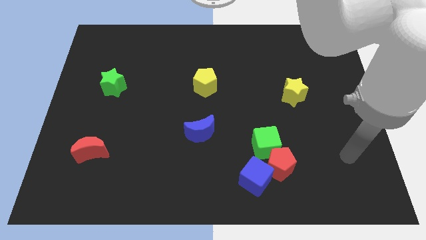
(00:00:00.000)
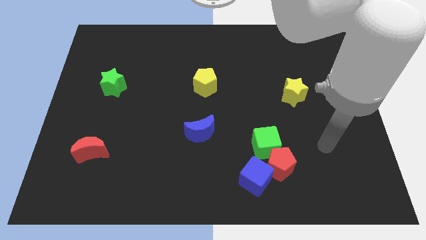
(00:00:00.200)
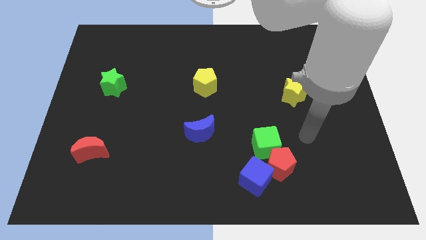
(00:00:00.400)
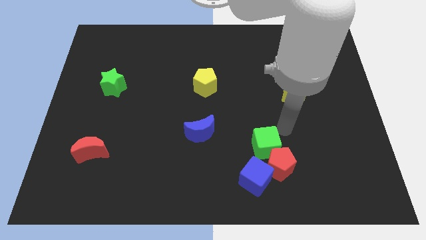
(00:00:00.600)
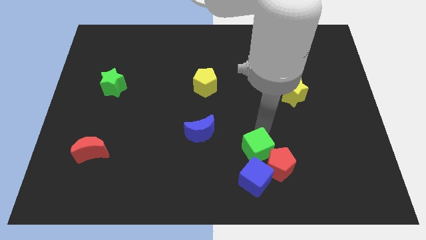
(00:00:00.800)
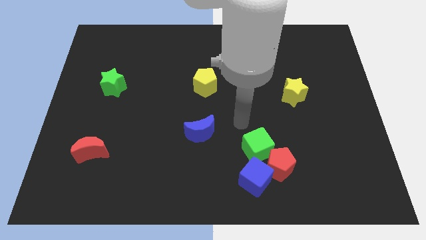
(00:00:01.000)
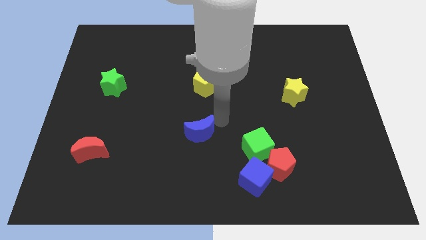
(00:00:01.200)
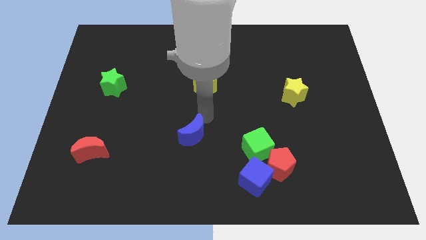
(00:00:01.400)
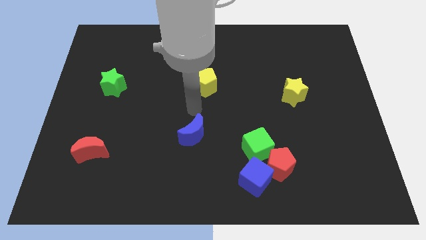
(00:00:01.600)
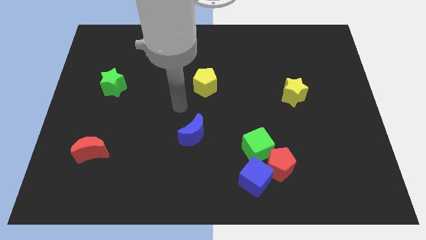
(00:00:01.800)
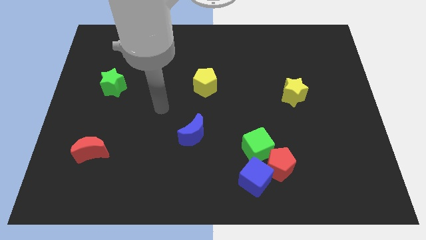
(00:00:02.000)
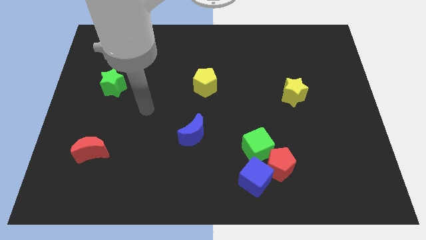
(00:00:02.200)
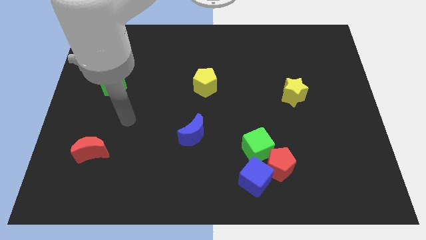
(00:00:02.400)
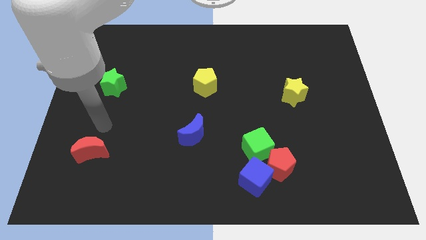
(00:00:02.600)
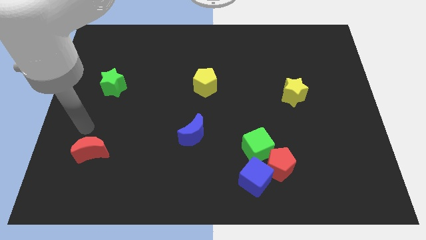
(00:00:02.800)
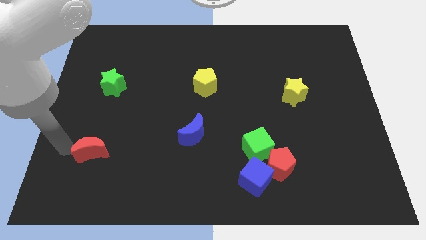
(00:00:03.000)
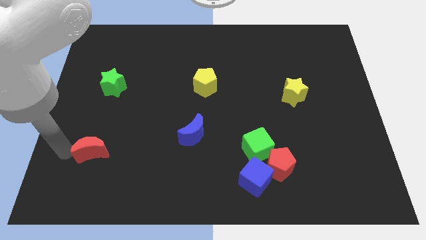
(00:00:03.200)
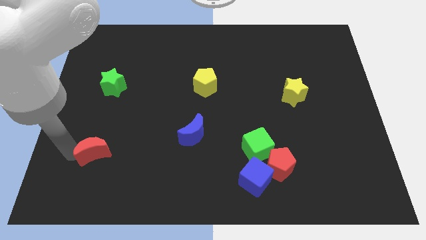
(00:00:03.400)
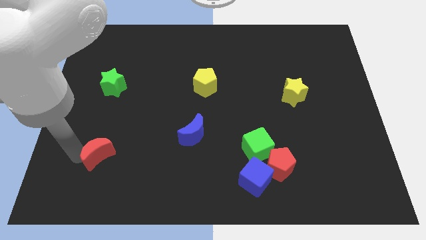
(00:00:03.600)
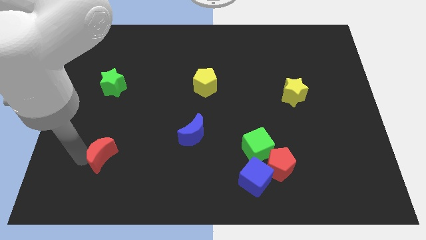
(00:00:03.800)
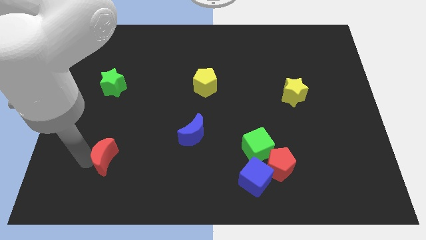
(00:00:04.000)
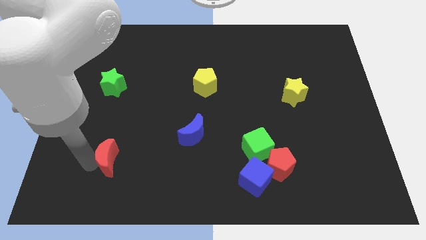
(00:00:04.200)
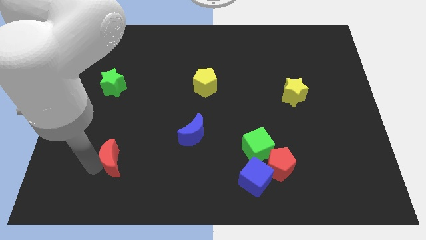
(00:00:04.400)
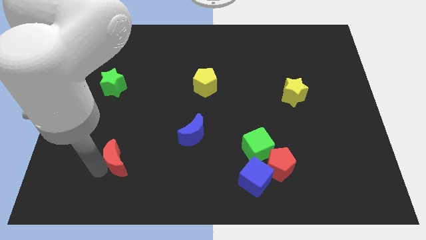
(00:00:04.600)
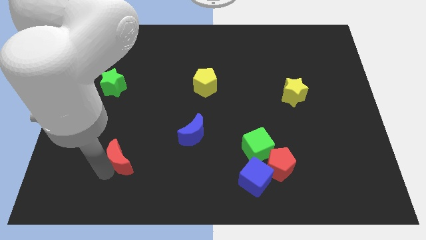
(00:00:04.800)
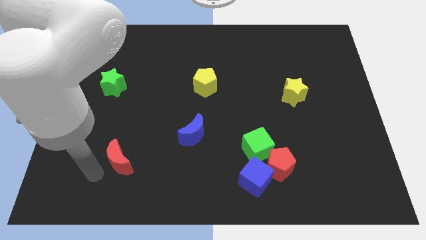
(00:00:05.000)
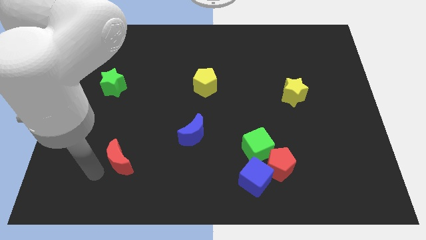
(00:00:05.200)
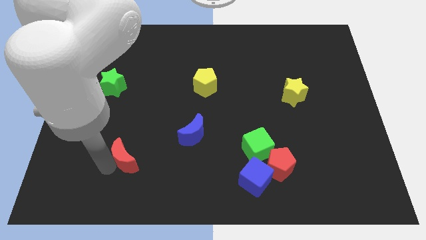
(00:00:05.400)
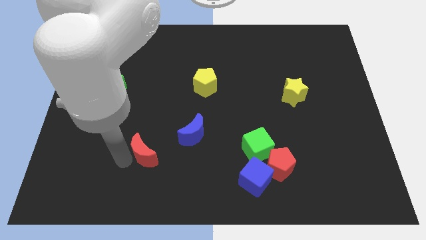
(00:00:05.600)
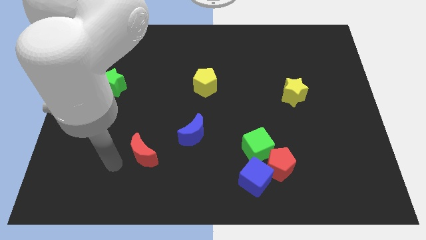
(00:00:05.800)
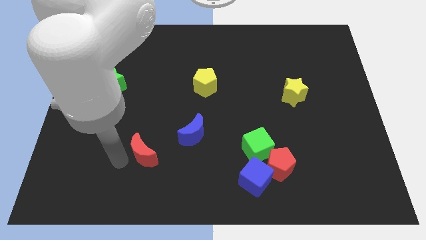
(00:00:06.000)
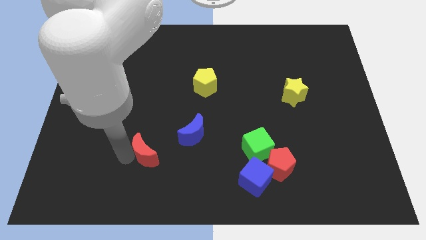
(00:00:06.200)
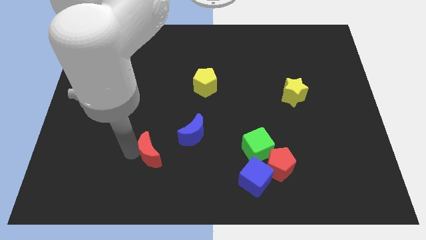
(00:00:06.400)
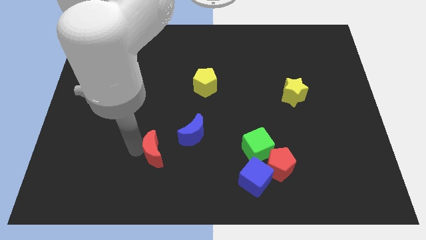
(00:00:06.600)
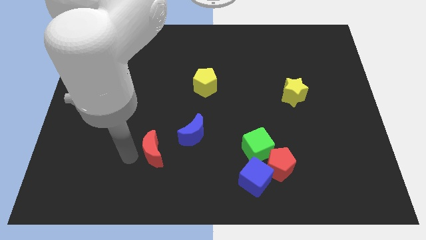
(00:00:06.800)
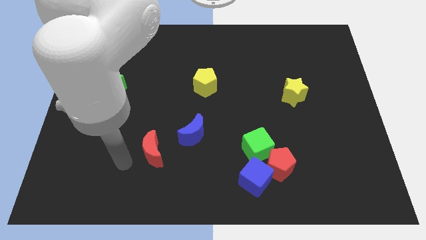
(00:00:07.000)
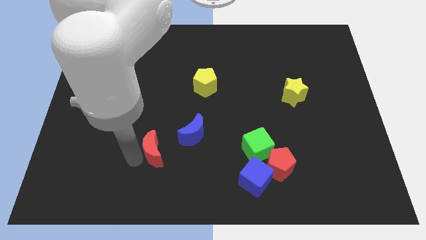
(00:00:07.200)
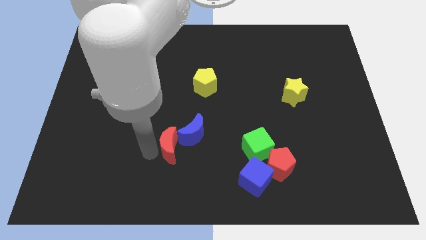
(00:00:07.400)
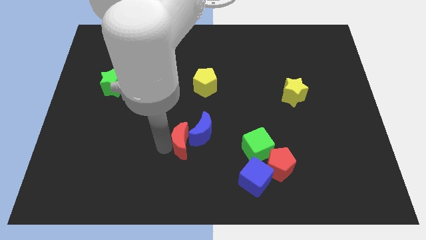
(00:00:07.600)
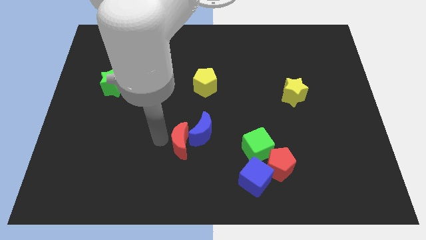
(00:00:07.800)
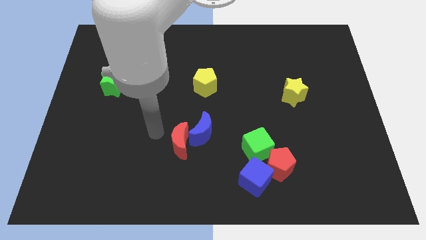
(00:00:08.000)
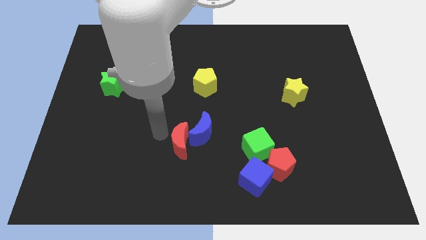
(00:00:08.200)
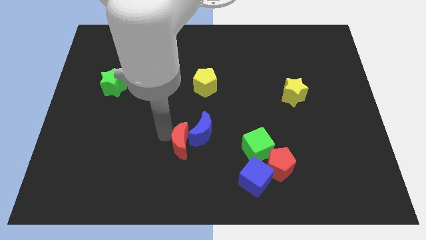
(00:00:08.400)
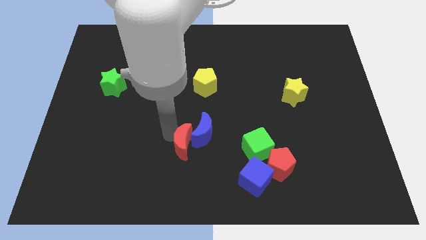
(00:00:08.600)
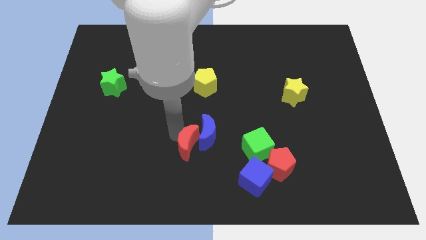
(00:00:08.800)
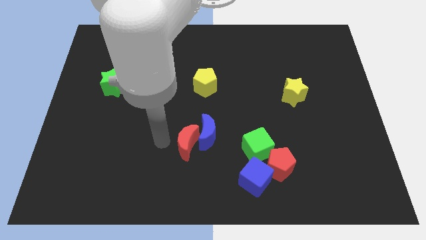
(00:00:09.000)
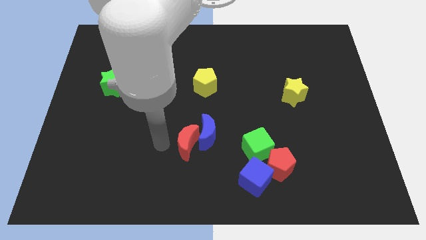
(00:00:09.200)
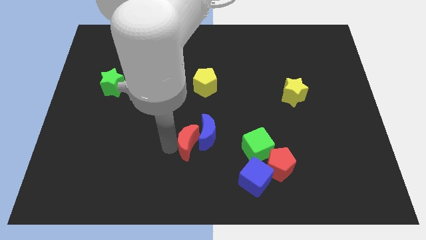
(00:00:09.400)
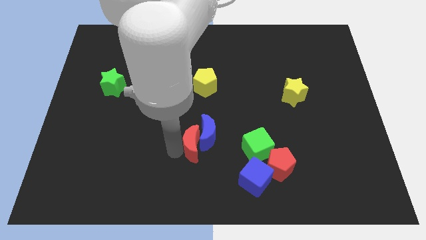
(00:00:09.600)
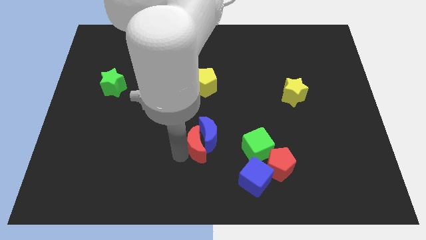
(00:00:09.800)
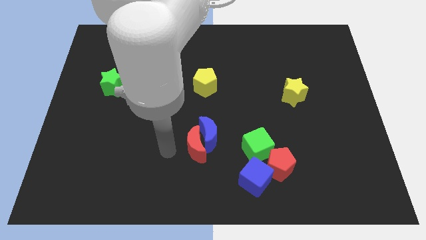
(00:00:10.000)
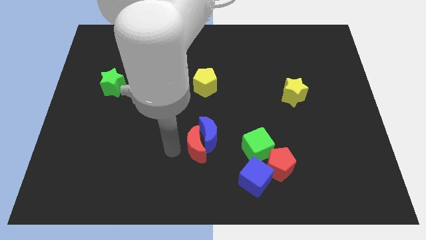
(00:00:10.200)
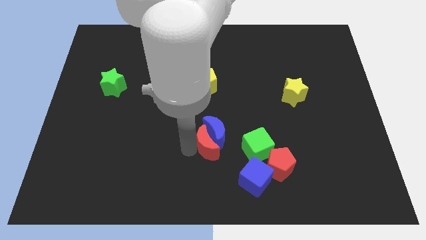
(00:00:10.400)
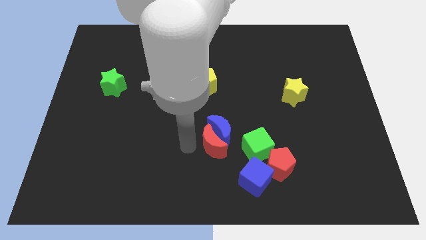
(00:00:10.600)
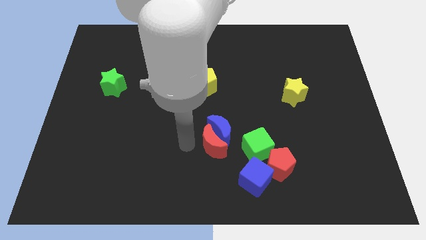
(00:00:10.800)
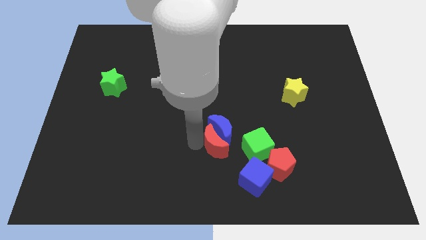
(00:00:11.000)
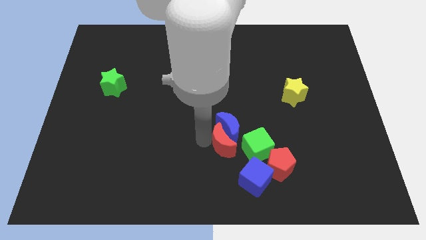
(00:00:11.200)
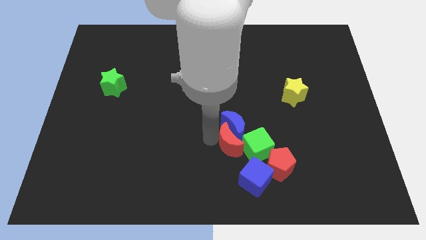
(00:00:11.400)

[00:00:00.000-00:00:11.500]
push the red moon to the green cube

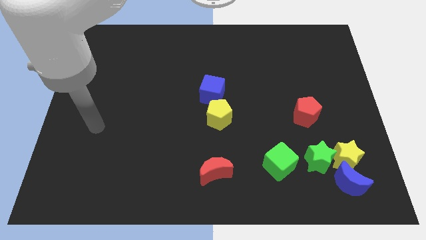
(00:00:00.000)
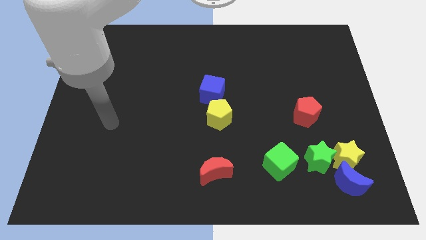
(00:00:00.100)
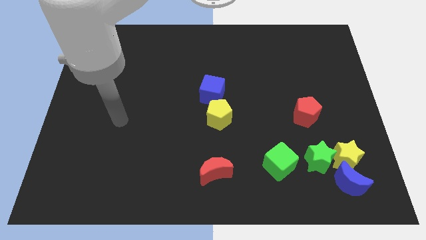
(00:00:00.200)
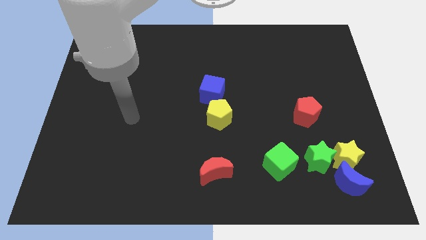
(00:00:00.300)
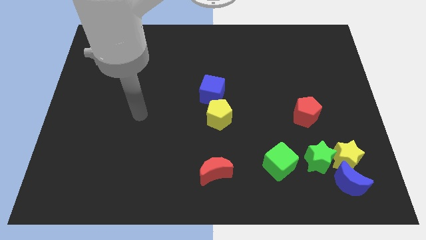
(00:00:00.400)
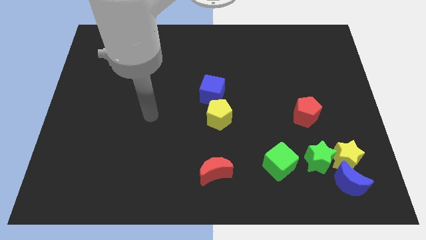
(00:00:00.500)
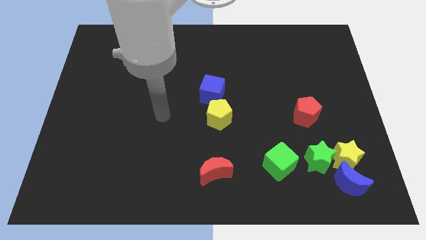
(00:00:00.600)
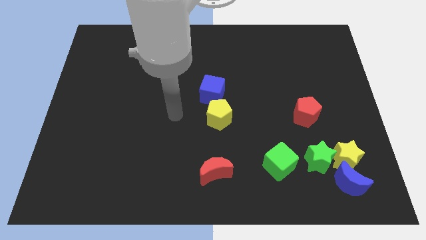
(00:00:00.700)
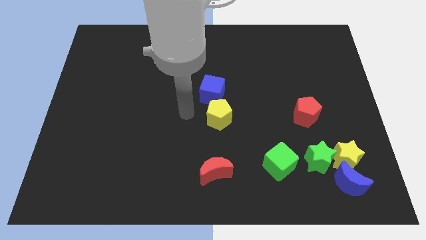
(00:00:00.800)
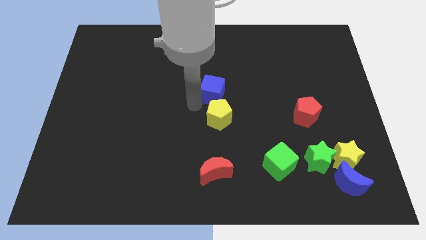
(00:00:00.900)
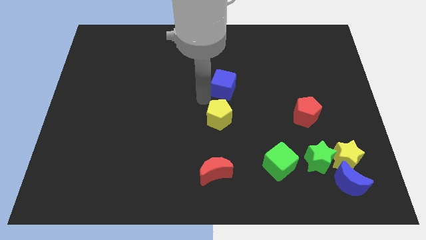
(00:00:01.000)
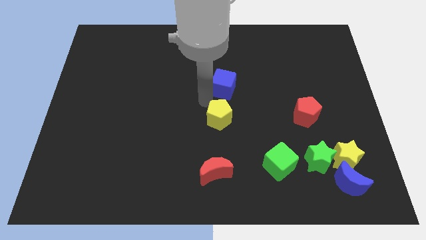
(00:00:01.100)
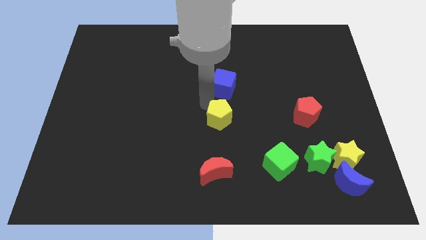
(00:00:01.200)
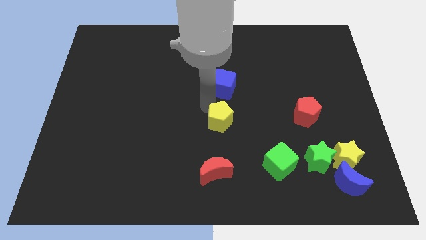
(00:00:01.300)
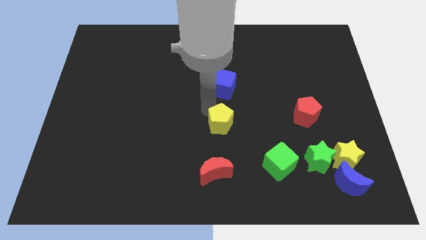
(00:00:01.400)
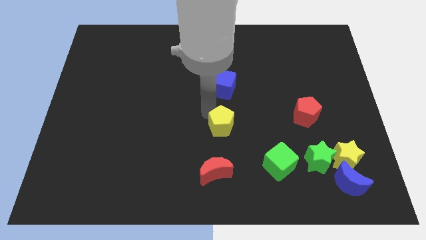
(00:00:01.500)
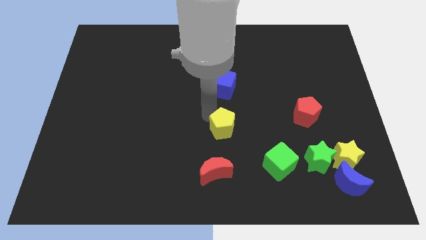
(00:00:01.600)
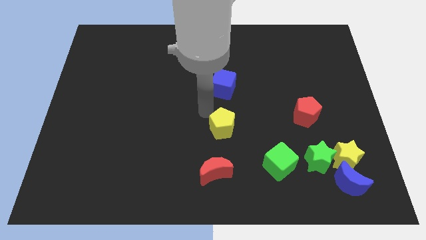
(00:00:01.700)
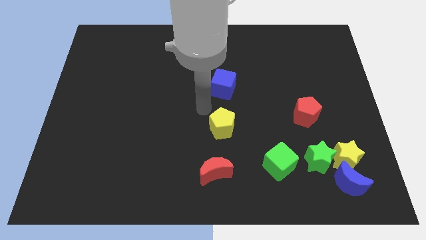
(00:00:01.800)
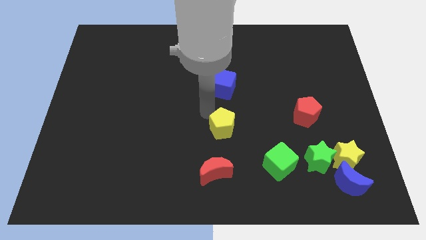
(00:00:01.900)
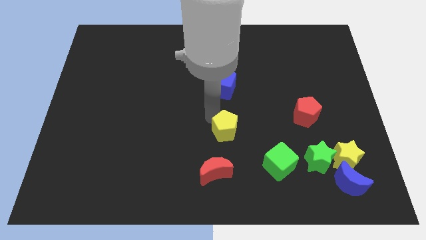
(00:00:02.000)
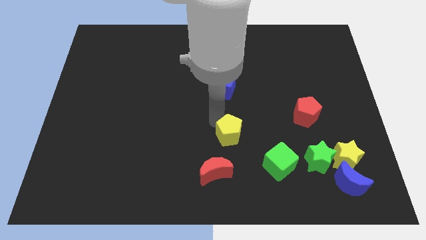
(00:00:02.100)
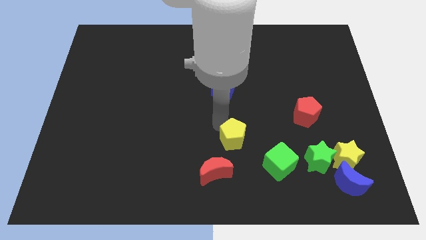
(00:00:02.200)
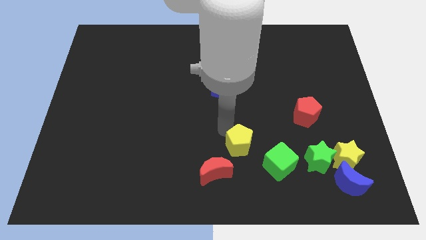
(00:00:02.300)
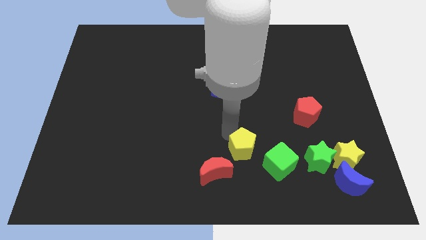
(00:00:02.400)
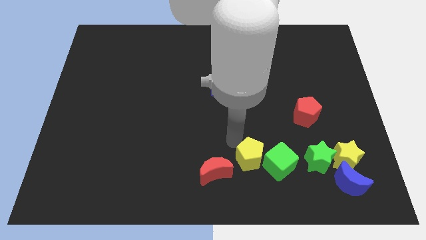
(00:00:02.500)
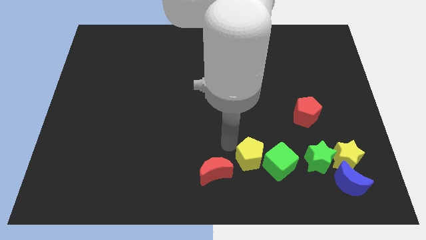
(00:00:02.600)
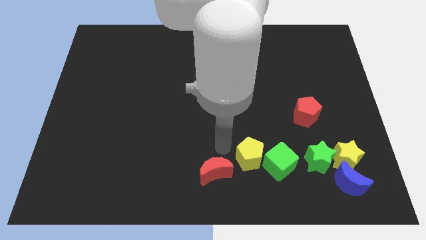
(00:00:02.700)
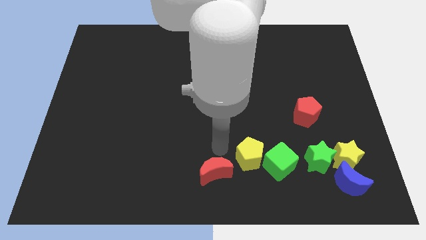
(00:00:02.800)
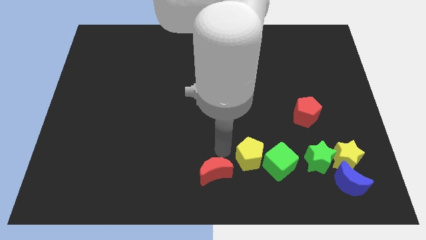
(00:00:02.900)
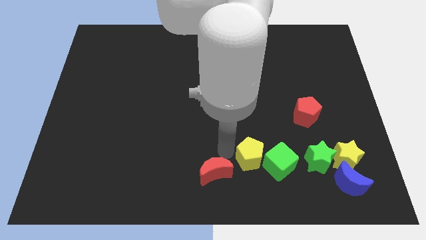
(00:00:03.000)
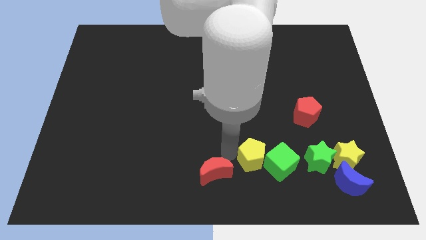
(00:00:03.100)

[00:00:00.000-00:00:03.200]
push the yellow pentagon next to the green cube
